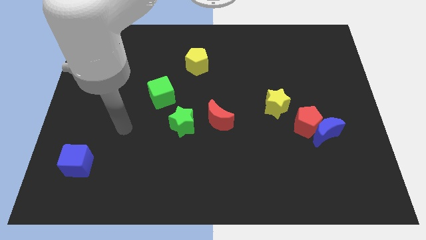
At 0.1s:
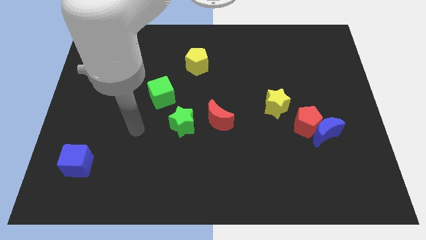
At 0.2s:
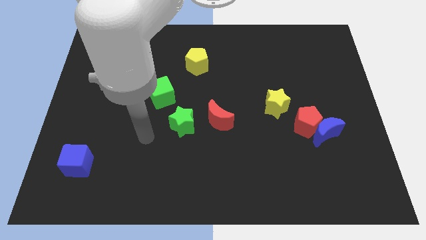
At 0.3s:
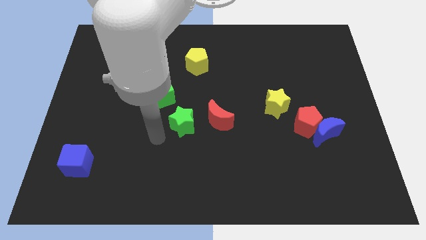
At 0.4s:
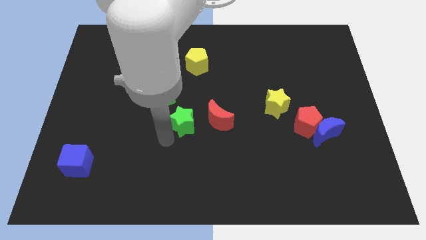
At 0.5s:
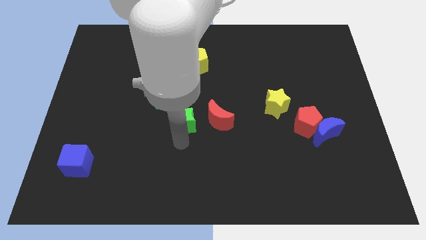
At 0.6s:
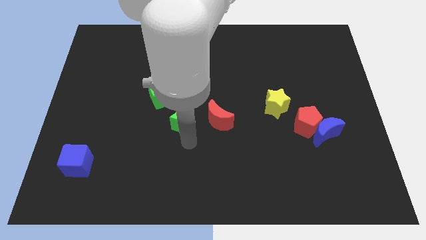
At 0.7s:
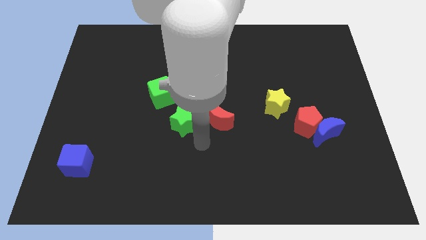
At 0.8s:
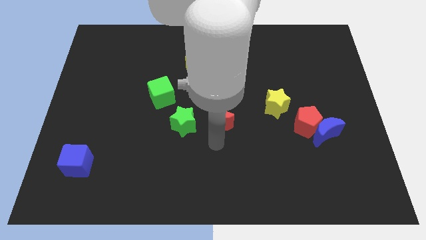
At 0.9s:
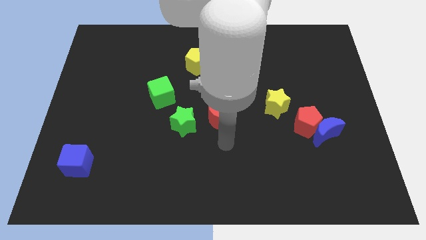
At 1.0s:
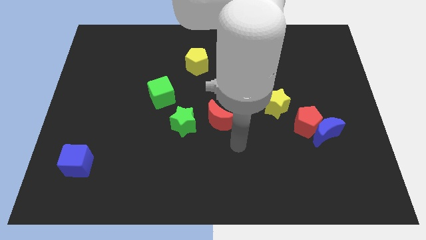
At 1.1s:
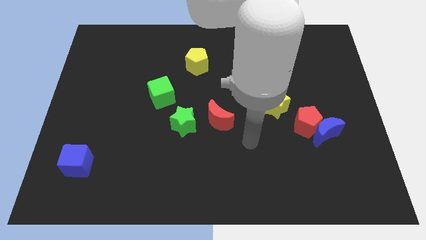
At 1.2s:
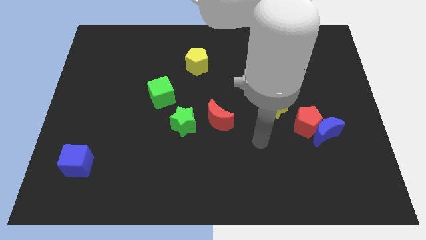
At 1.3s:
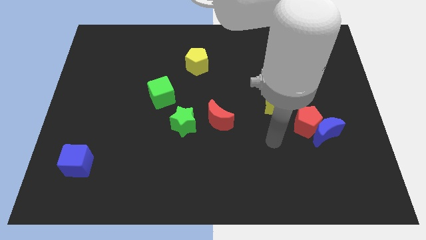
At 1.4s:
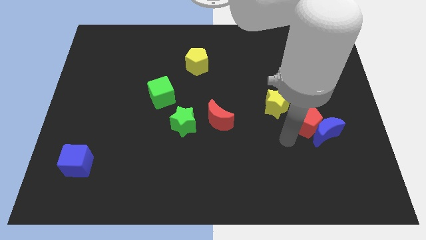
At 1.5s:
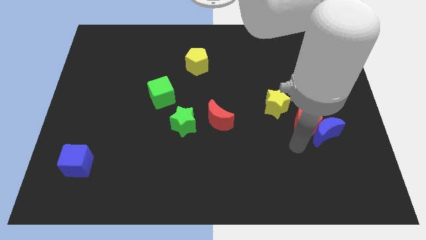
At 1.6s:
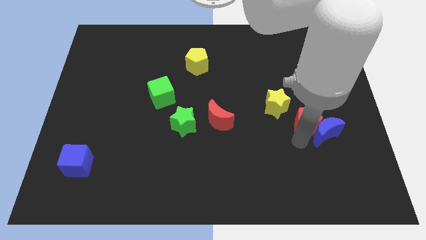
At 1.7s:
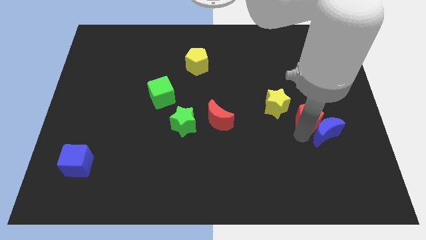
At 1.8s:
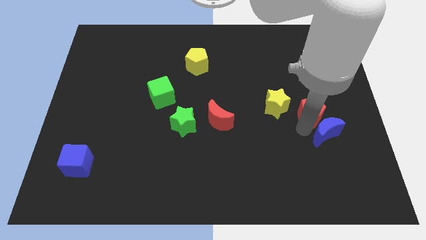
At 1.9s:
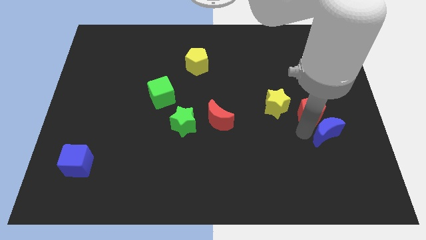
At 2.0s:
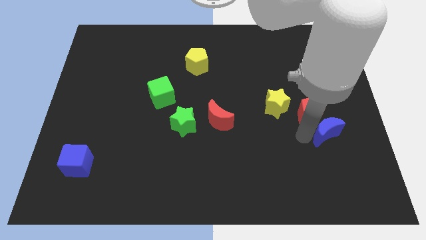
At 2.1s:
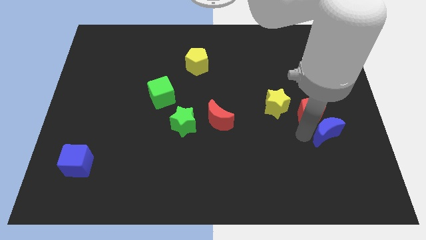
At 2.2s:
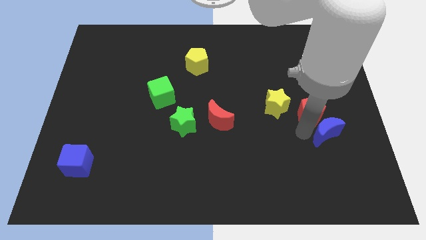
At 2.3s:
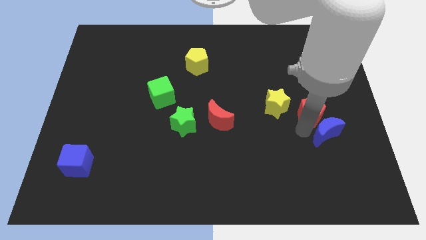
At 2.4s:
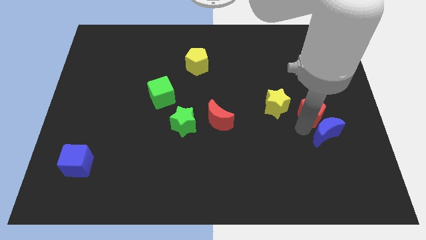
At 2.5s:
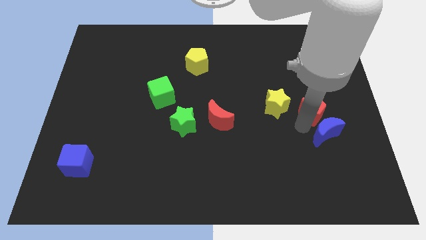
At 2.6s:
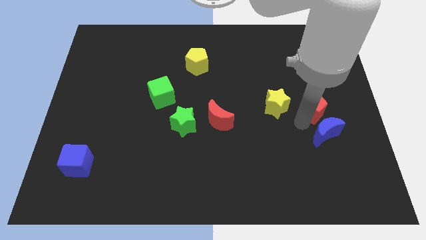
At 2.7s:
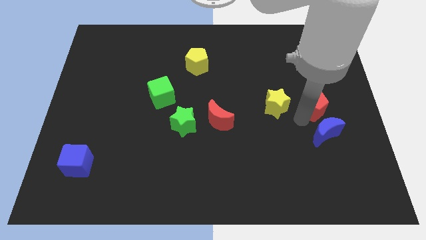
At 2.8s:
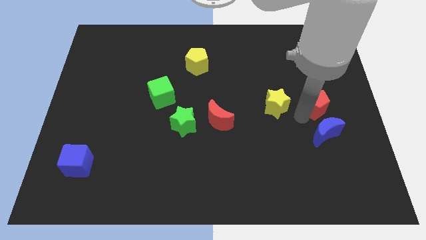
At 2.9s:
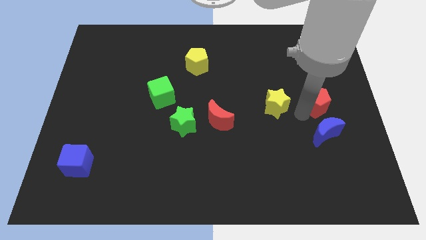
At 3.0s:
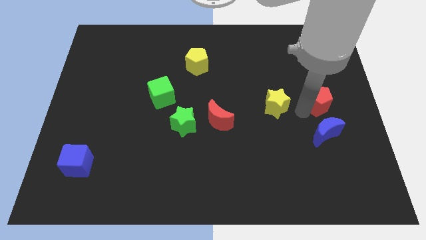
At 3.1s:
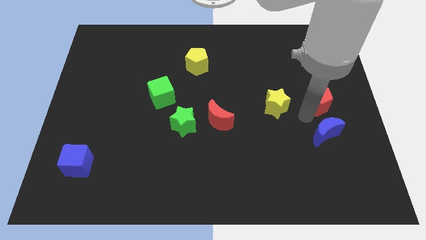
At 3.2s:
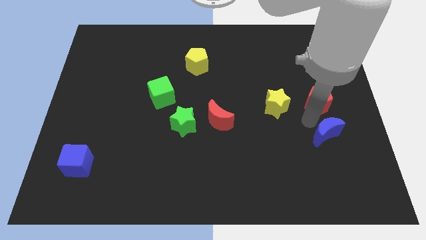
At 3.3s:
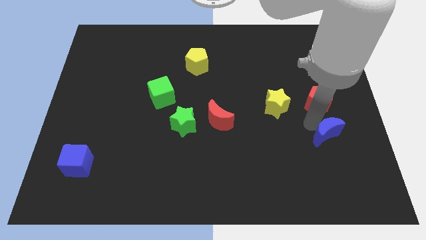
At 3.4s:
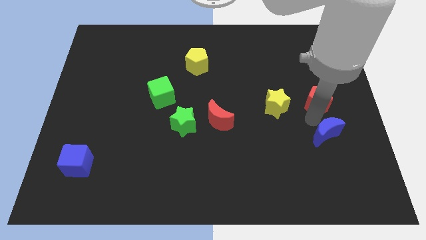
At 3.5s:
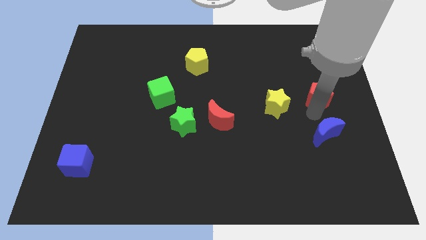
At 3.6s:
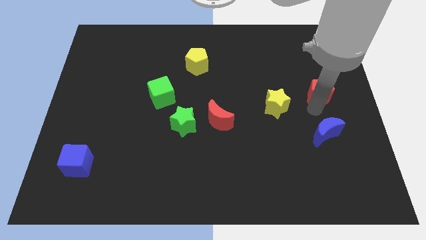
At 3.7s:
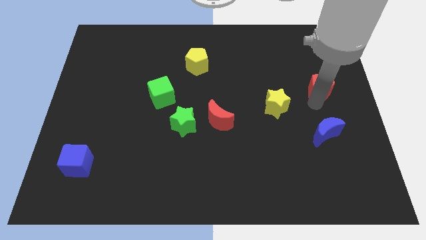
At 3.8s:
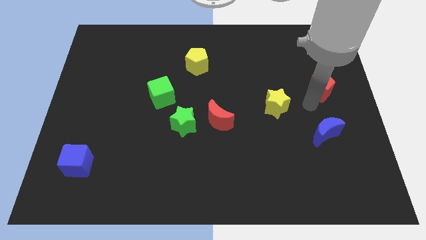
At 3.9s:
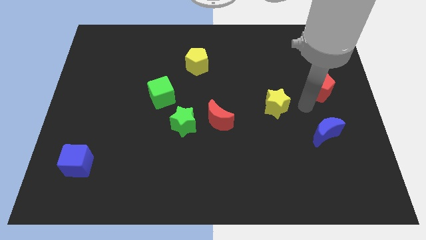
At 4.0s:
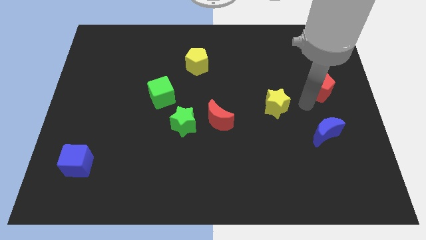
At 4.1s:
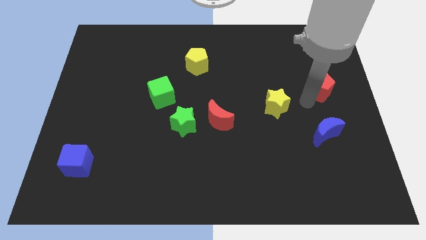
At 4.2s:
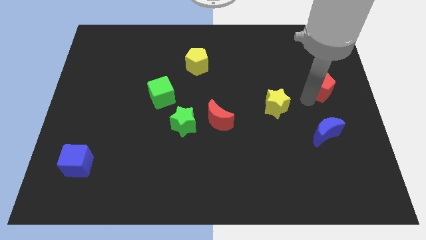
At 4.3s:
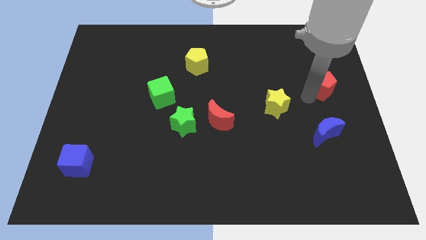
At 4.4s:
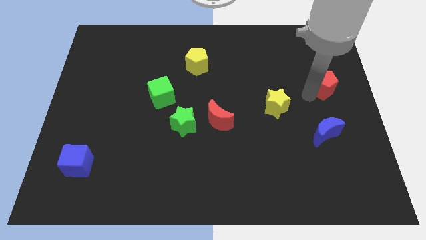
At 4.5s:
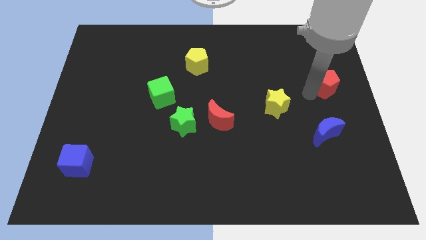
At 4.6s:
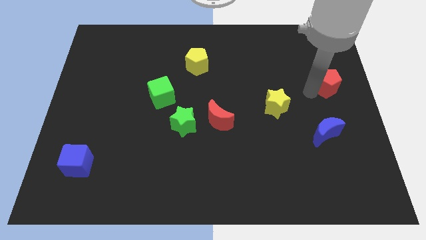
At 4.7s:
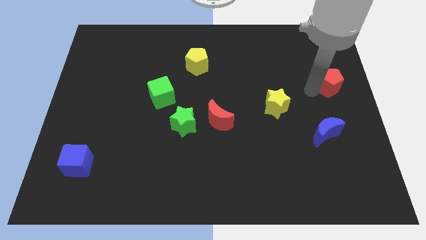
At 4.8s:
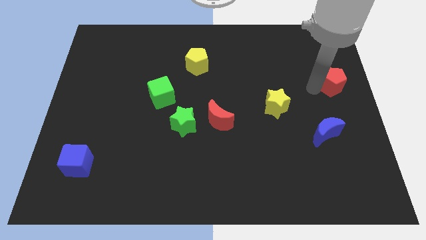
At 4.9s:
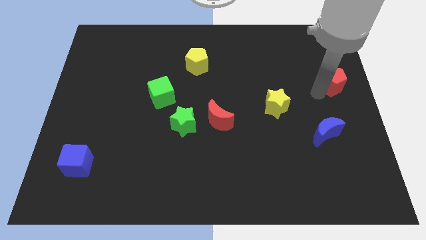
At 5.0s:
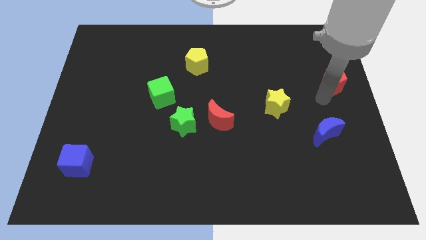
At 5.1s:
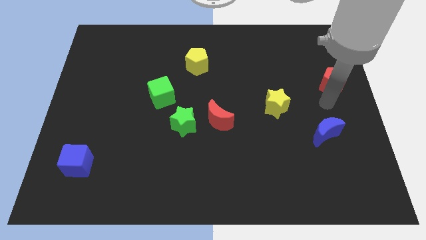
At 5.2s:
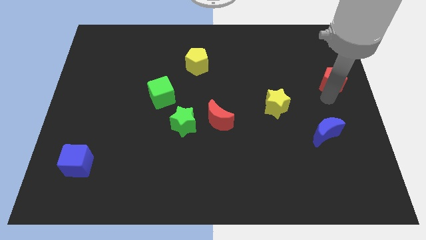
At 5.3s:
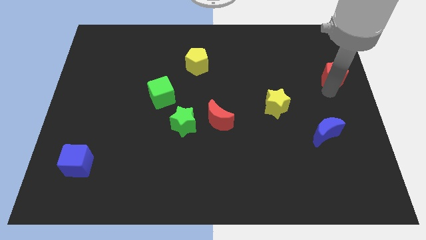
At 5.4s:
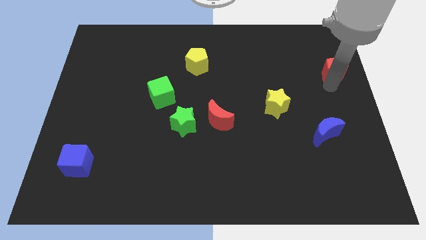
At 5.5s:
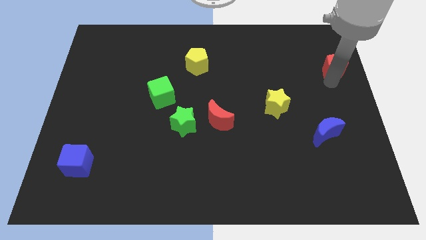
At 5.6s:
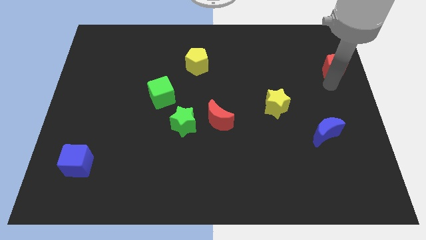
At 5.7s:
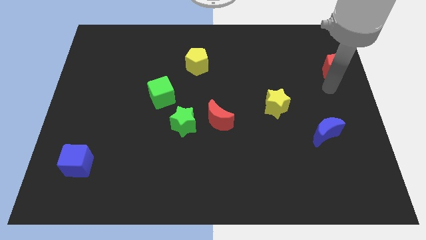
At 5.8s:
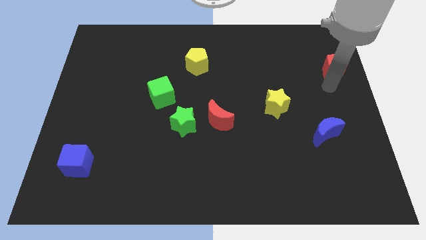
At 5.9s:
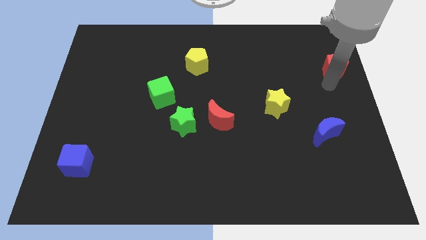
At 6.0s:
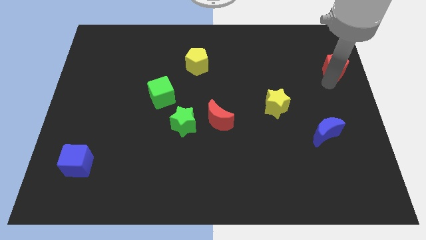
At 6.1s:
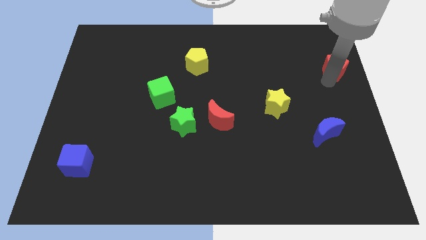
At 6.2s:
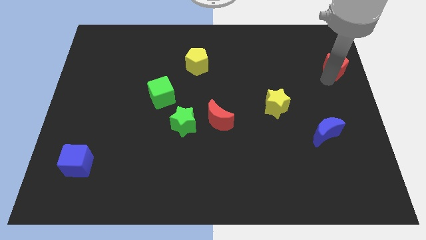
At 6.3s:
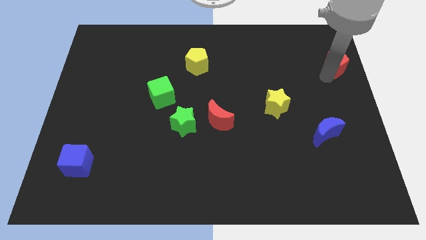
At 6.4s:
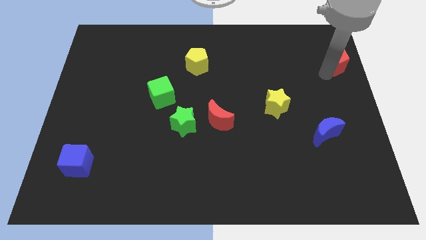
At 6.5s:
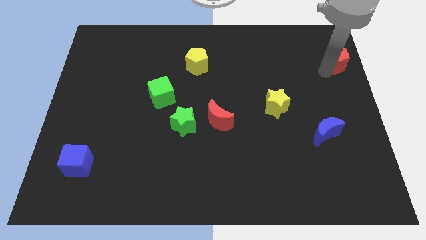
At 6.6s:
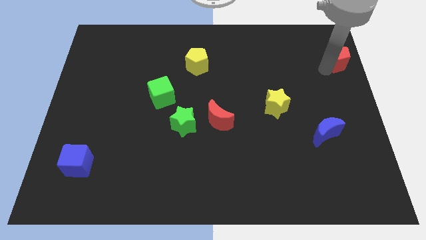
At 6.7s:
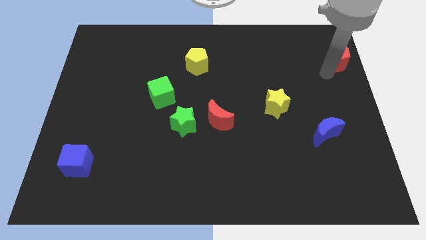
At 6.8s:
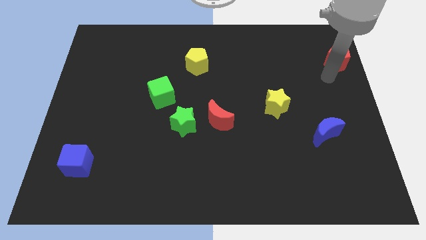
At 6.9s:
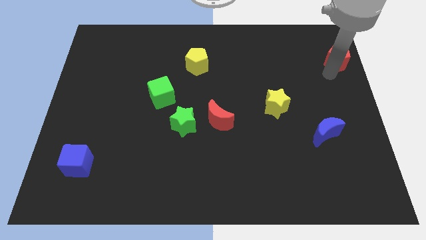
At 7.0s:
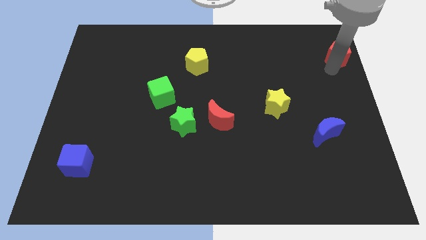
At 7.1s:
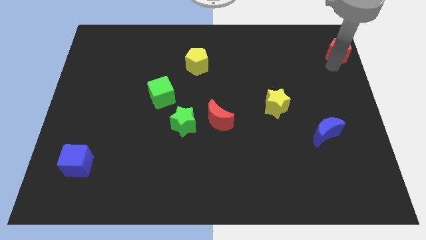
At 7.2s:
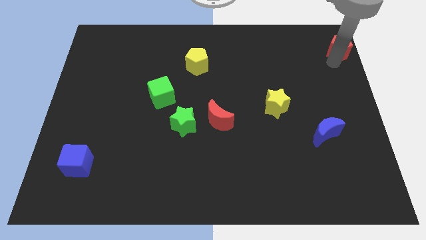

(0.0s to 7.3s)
put the red pentagon to the top right corner
